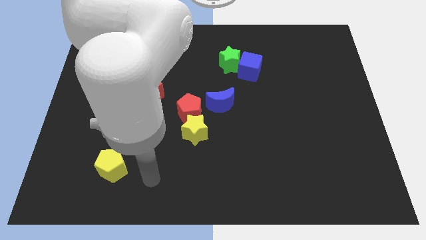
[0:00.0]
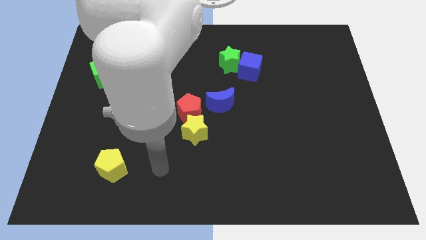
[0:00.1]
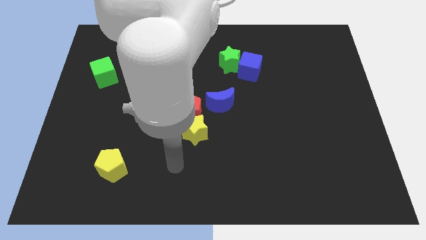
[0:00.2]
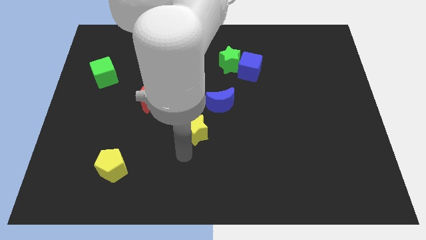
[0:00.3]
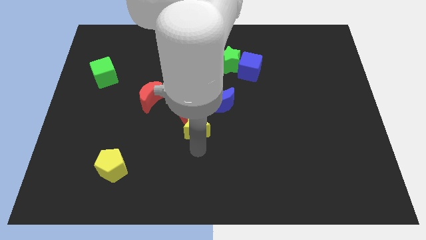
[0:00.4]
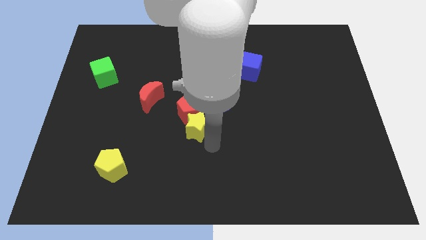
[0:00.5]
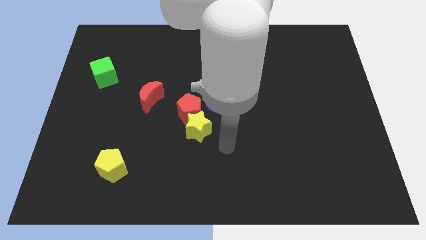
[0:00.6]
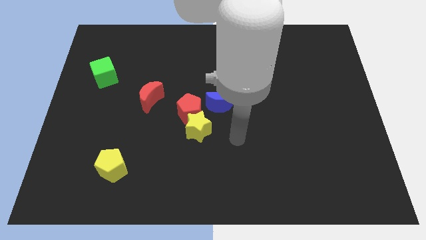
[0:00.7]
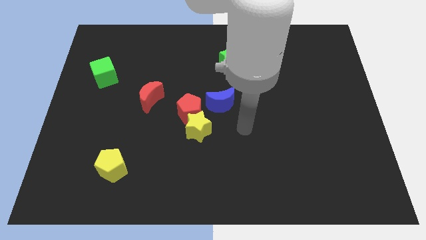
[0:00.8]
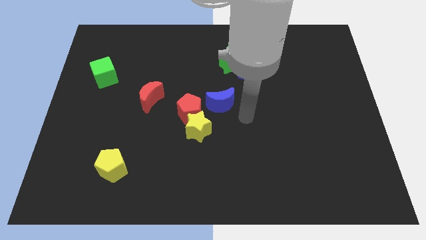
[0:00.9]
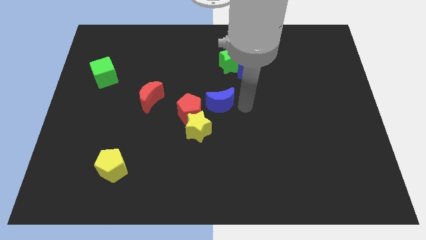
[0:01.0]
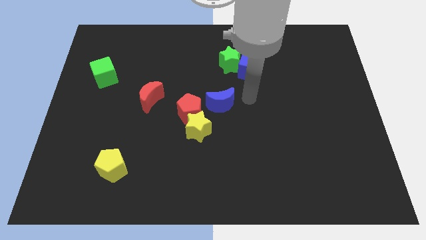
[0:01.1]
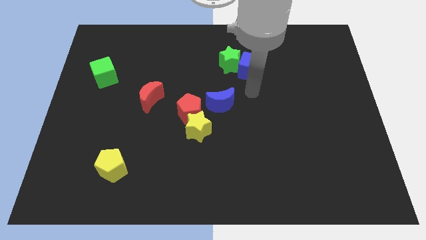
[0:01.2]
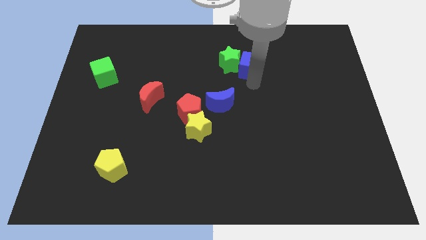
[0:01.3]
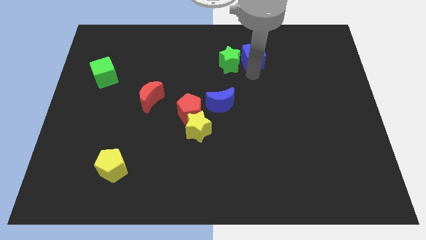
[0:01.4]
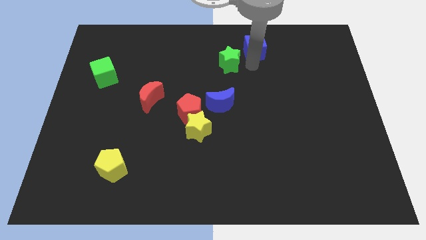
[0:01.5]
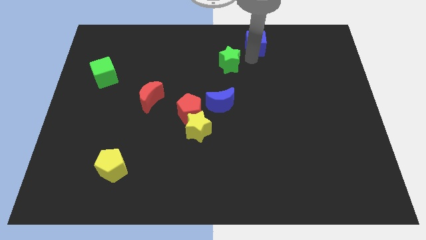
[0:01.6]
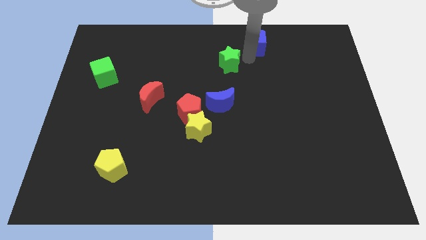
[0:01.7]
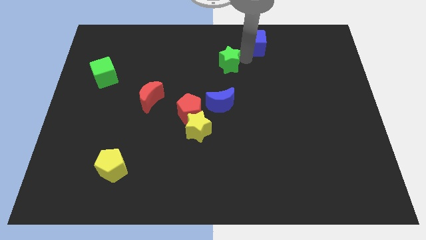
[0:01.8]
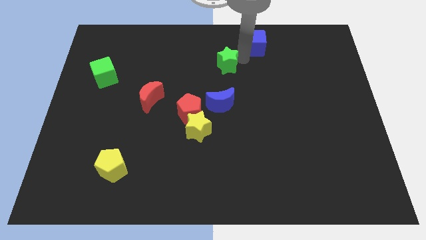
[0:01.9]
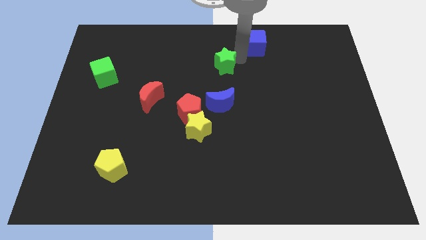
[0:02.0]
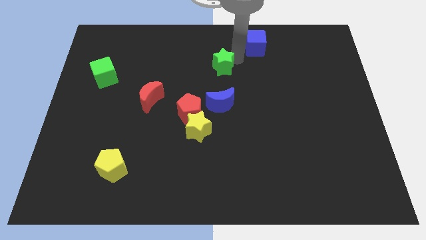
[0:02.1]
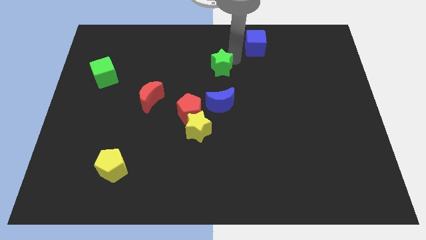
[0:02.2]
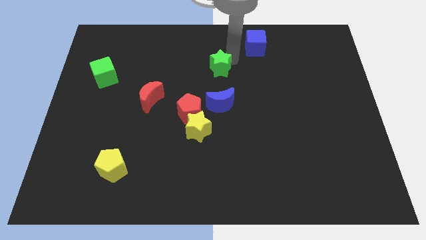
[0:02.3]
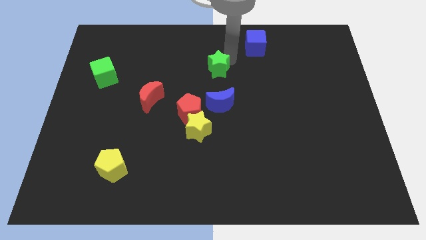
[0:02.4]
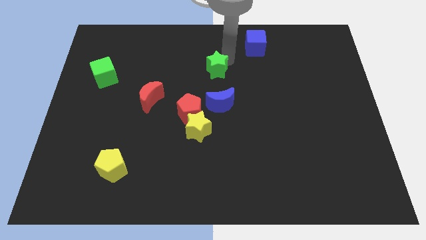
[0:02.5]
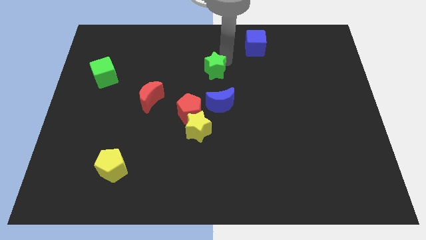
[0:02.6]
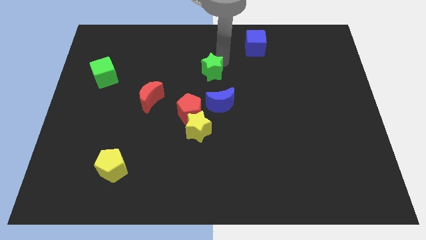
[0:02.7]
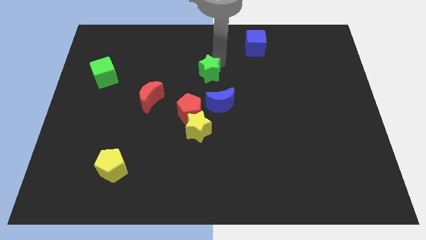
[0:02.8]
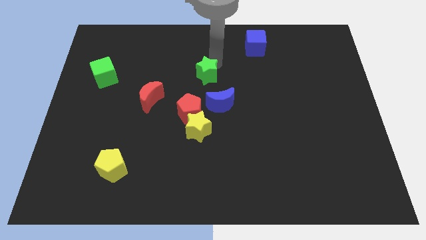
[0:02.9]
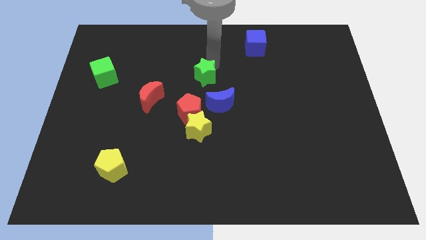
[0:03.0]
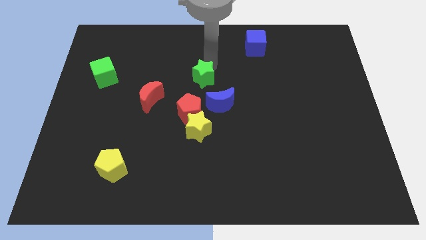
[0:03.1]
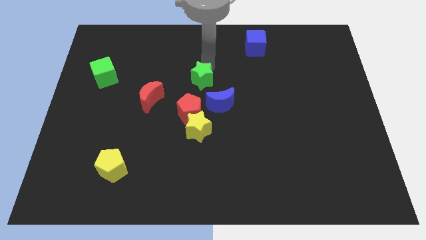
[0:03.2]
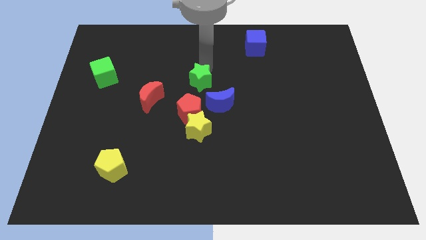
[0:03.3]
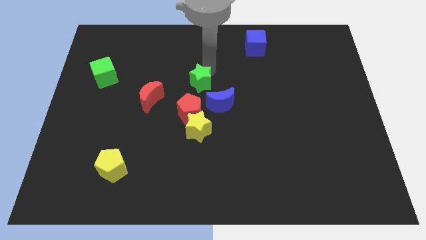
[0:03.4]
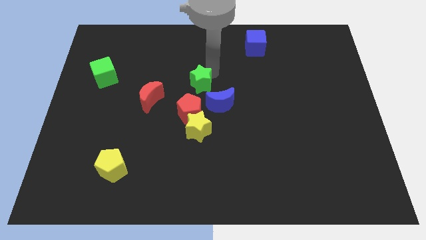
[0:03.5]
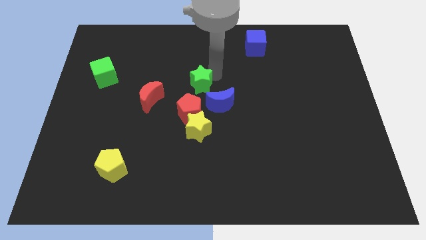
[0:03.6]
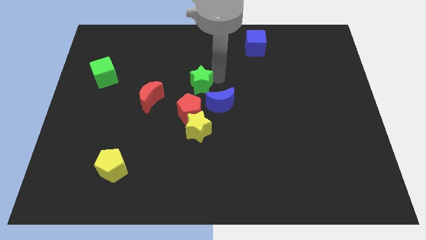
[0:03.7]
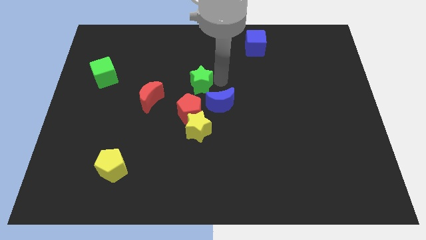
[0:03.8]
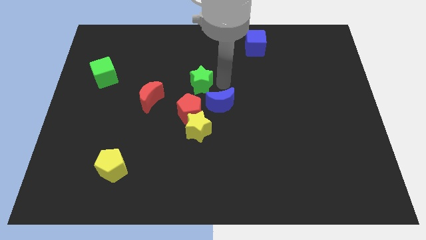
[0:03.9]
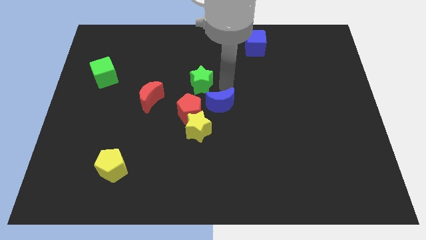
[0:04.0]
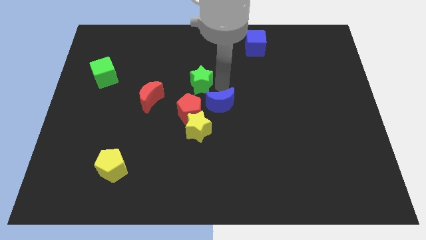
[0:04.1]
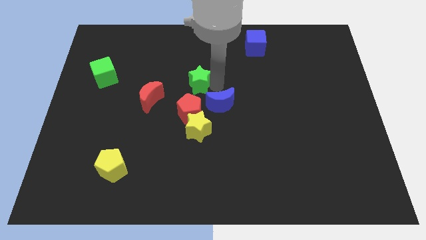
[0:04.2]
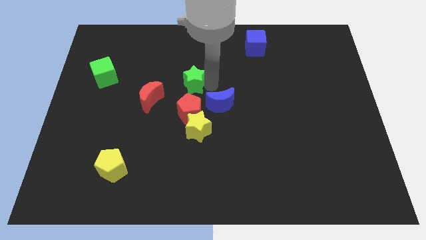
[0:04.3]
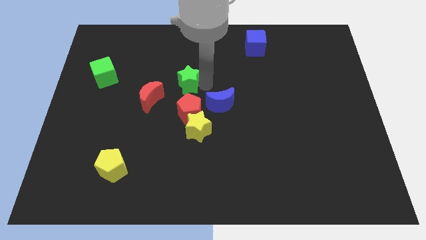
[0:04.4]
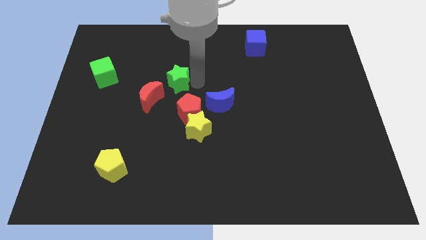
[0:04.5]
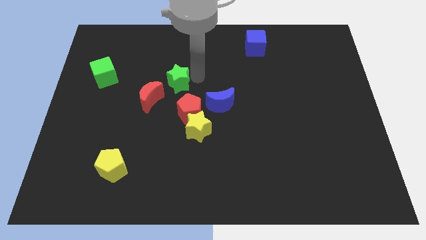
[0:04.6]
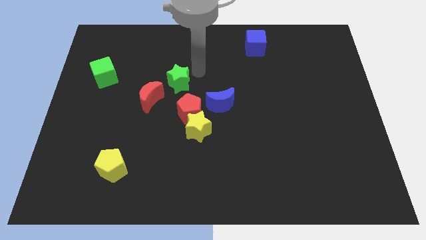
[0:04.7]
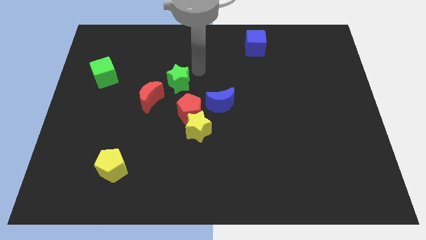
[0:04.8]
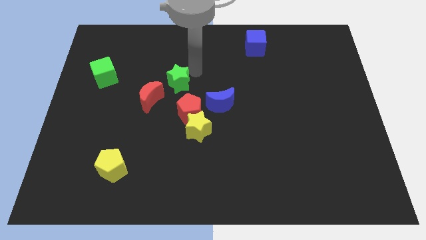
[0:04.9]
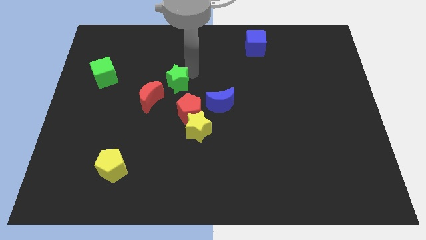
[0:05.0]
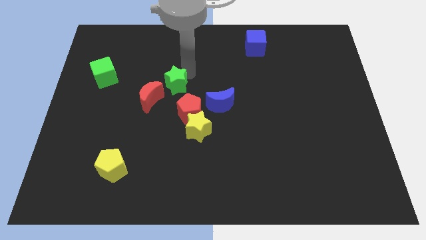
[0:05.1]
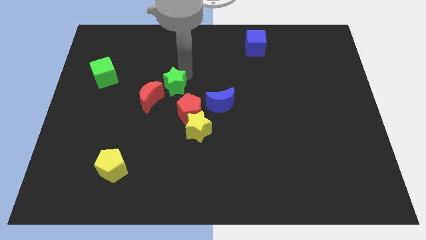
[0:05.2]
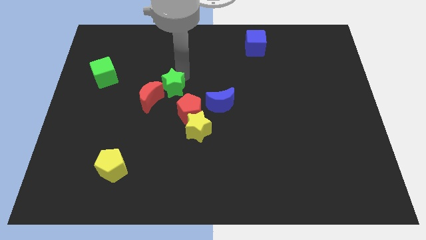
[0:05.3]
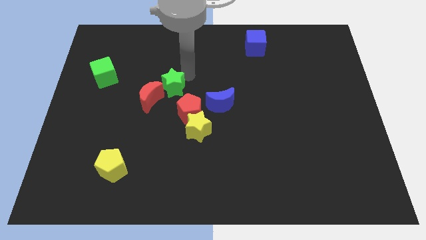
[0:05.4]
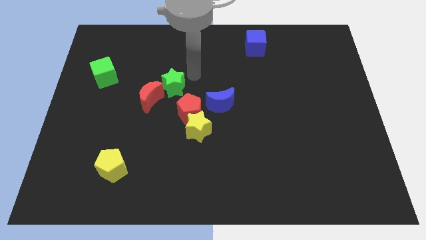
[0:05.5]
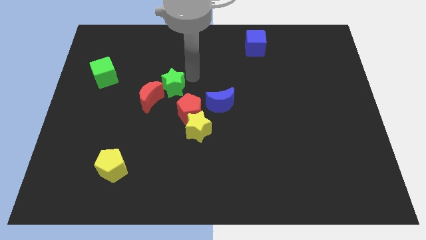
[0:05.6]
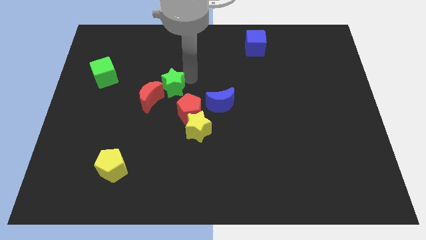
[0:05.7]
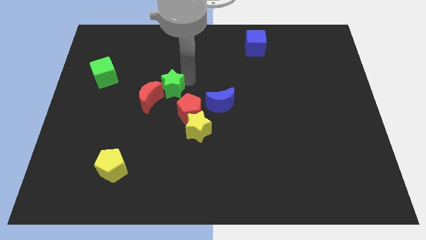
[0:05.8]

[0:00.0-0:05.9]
put the green star towards the red moon

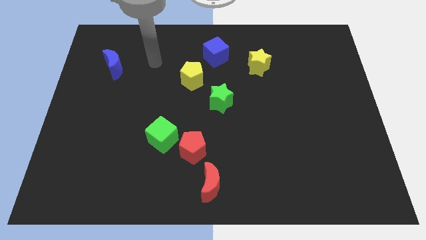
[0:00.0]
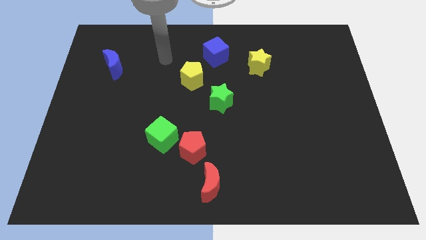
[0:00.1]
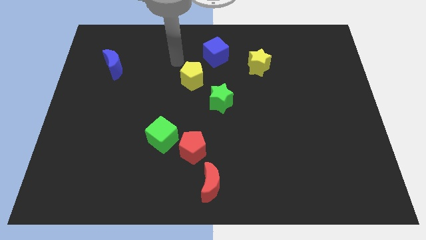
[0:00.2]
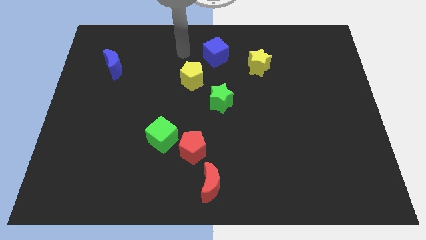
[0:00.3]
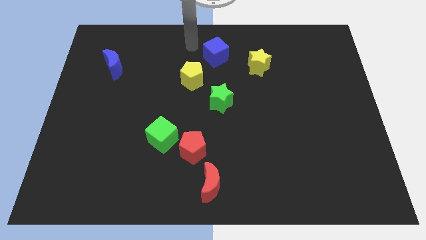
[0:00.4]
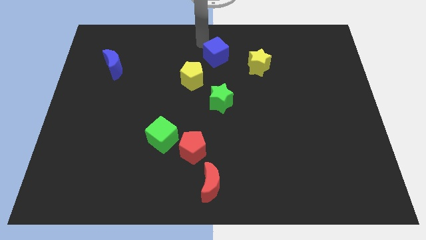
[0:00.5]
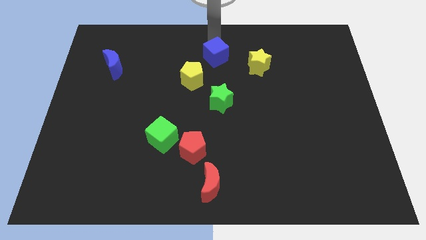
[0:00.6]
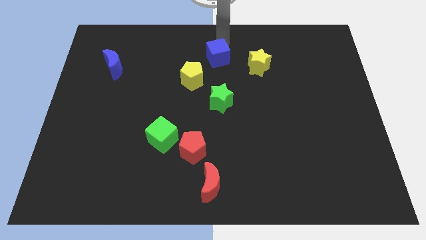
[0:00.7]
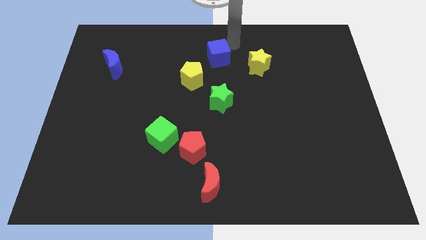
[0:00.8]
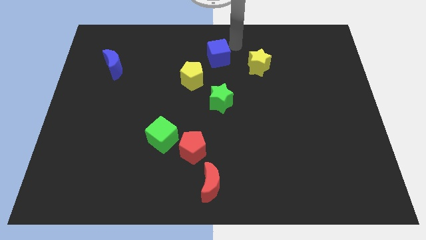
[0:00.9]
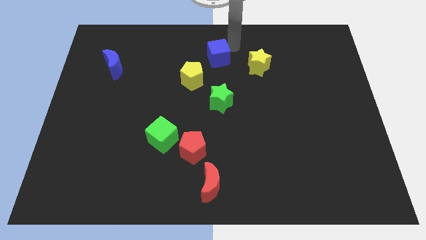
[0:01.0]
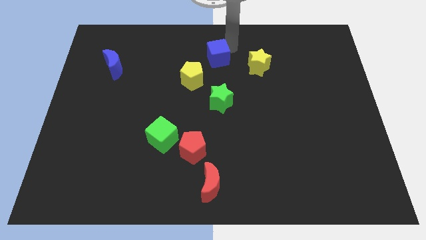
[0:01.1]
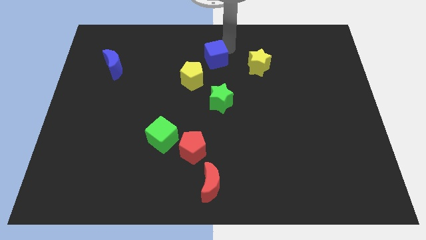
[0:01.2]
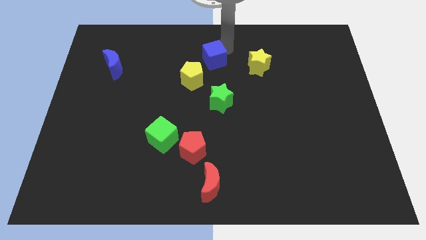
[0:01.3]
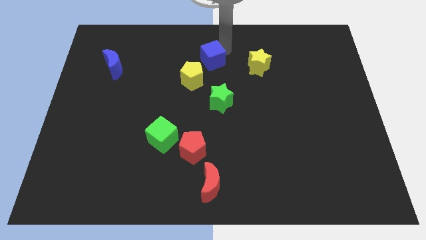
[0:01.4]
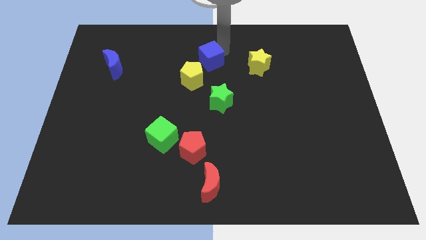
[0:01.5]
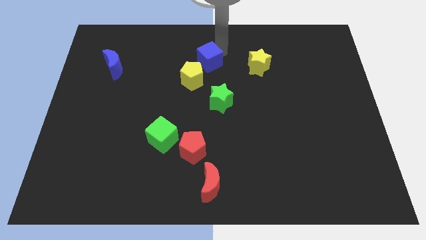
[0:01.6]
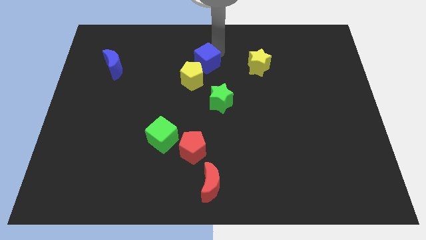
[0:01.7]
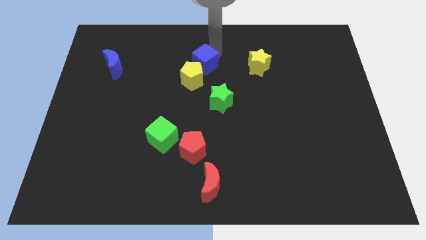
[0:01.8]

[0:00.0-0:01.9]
push the blue cube close to the yellow pentagon

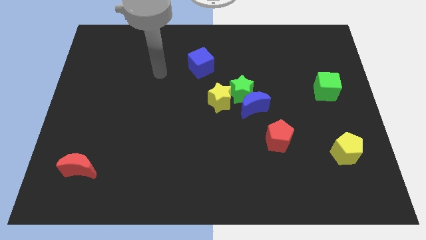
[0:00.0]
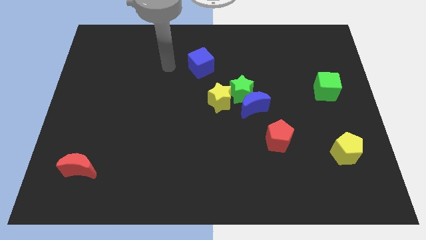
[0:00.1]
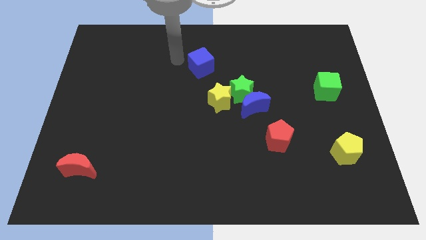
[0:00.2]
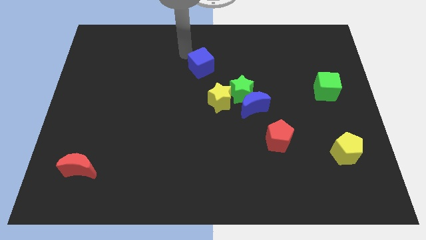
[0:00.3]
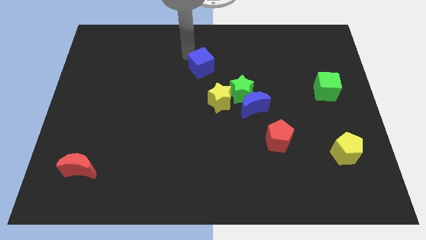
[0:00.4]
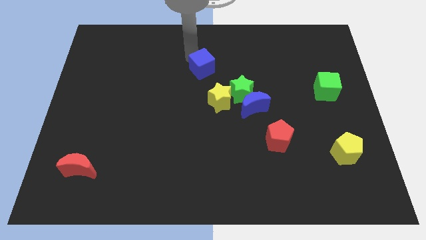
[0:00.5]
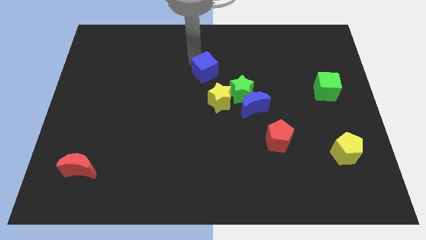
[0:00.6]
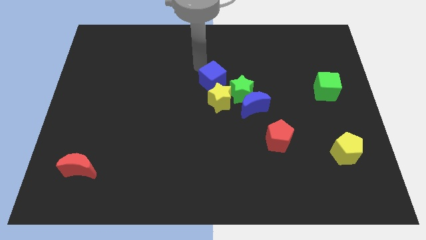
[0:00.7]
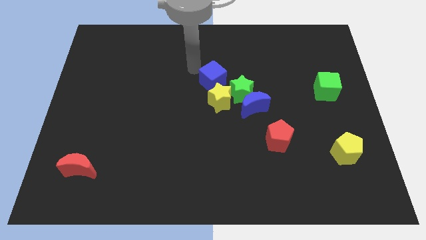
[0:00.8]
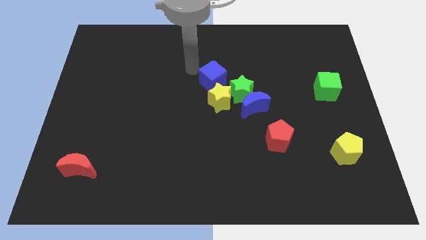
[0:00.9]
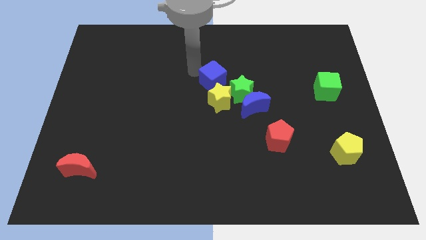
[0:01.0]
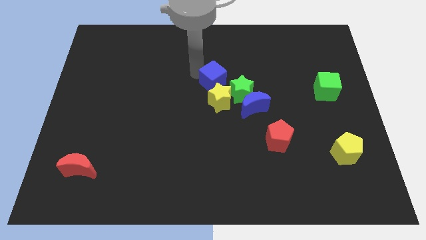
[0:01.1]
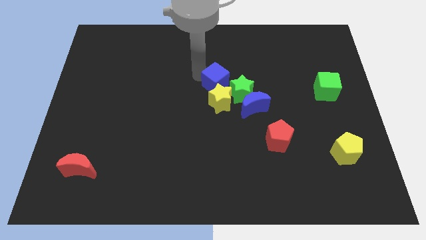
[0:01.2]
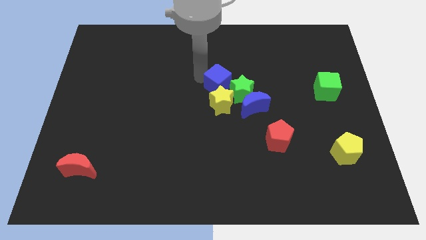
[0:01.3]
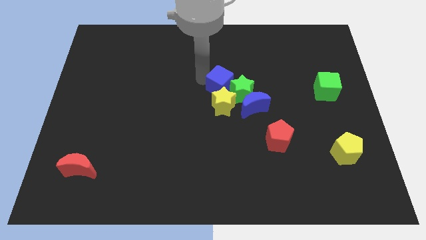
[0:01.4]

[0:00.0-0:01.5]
move the blue cube close to the green star
